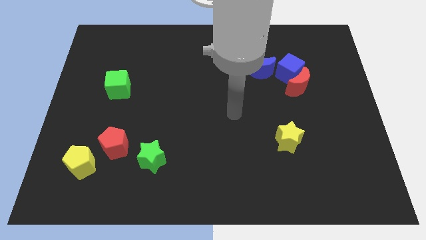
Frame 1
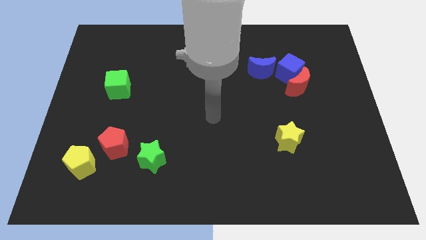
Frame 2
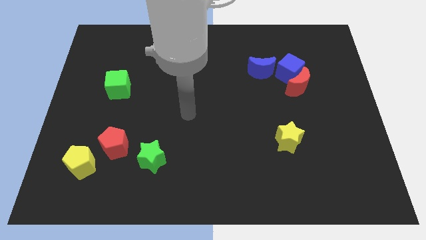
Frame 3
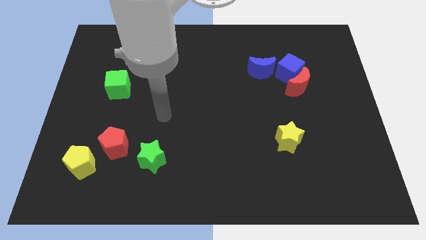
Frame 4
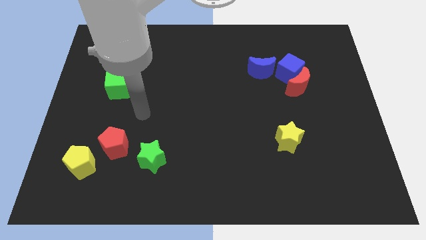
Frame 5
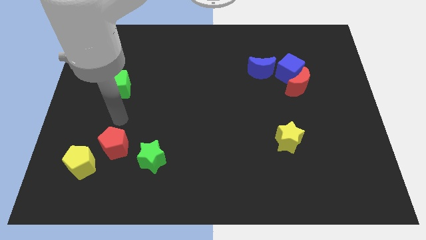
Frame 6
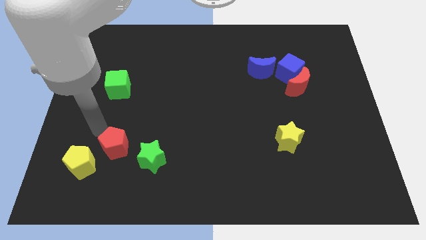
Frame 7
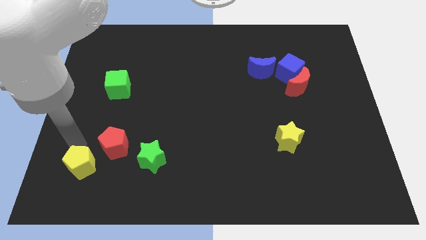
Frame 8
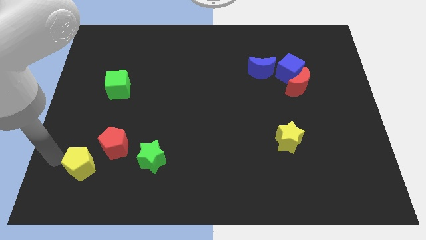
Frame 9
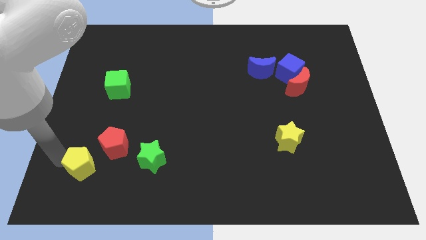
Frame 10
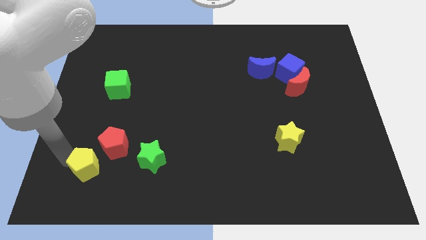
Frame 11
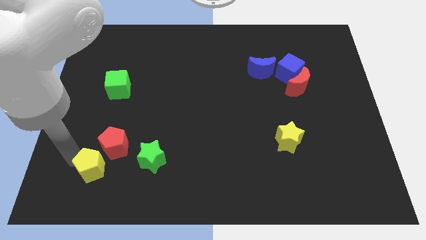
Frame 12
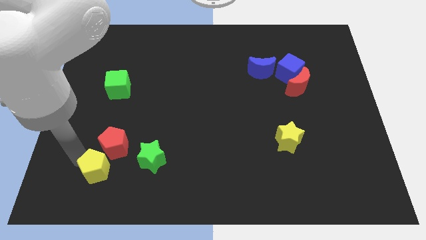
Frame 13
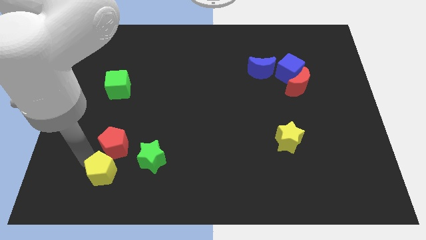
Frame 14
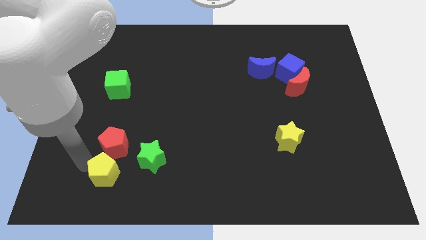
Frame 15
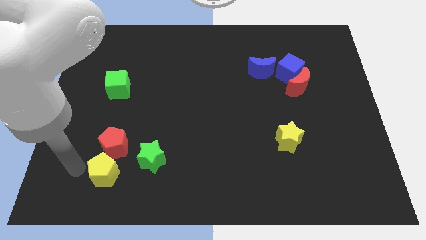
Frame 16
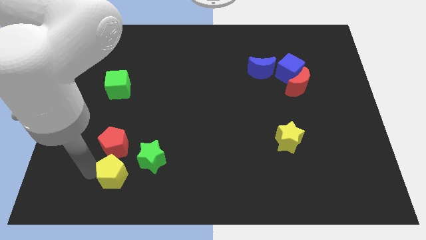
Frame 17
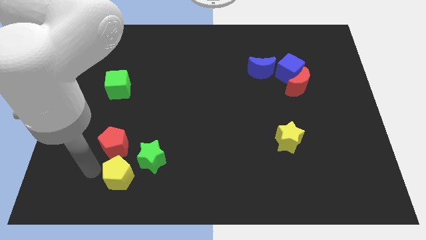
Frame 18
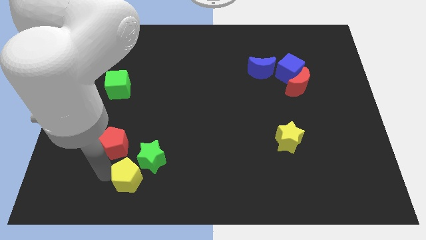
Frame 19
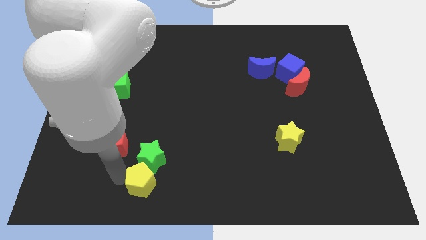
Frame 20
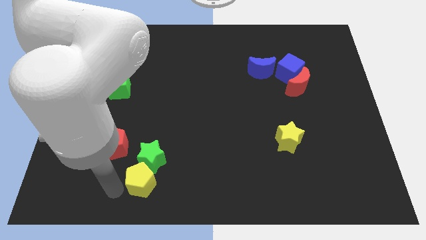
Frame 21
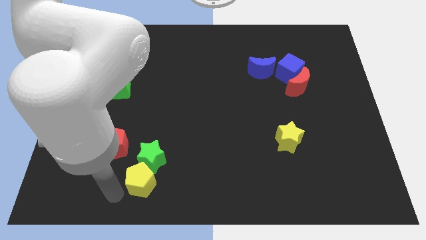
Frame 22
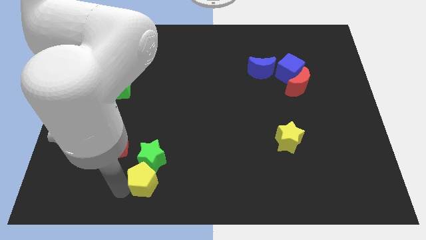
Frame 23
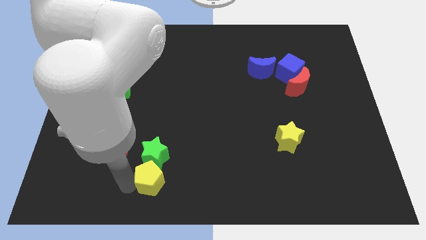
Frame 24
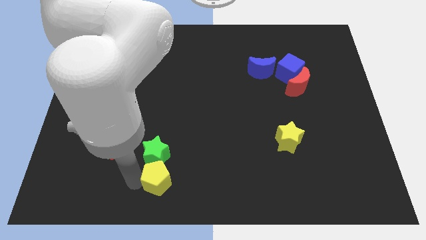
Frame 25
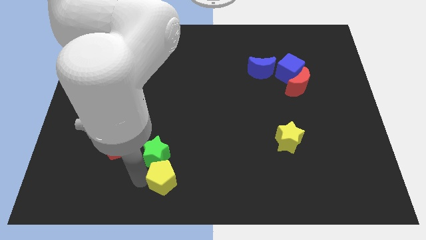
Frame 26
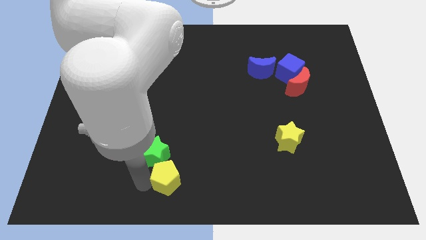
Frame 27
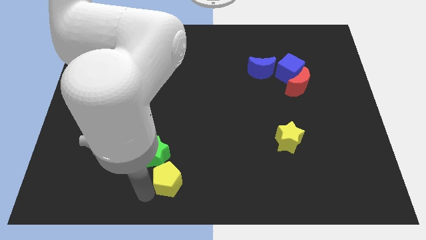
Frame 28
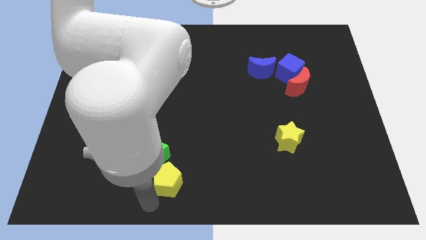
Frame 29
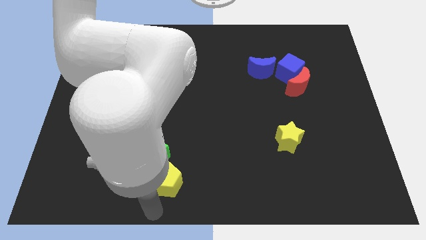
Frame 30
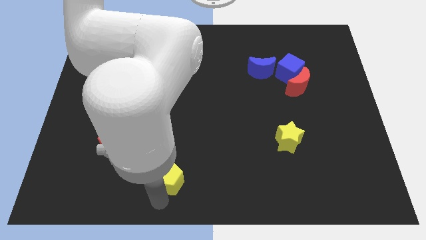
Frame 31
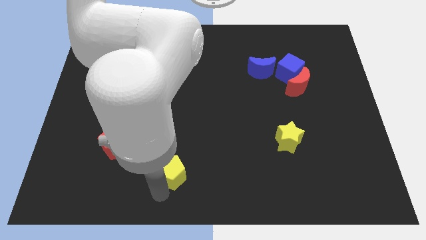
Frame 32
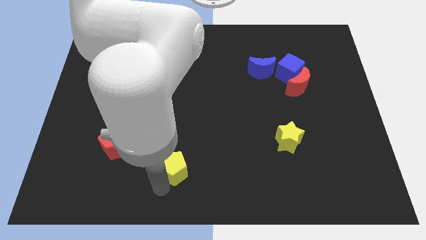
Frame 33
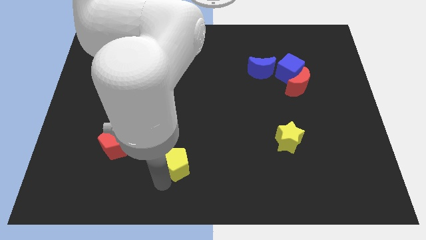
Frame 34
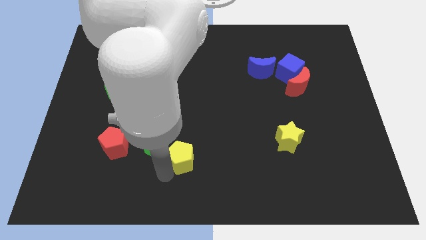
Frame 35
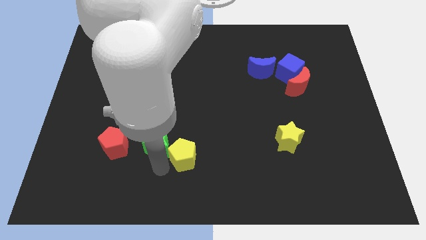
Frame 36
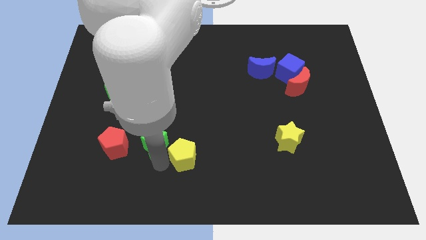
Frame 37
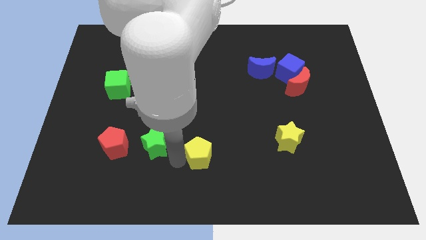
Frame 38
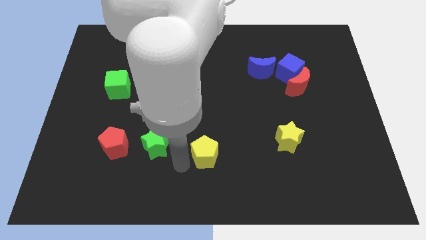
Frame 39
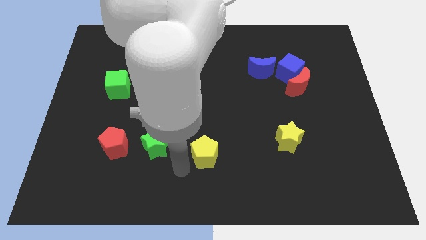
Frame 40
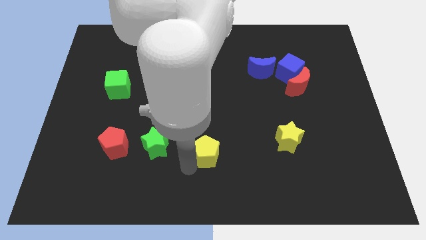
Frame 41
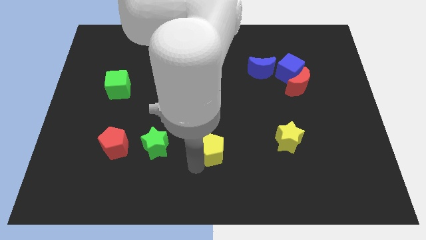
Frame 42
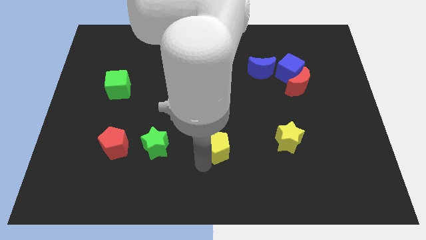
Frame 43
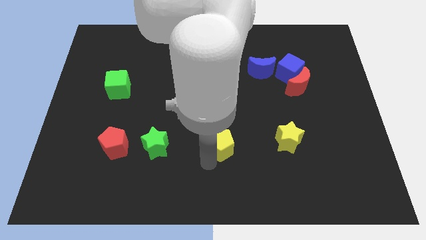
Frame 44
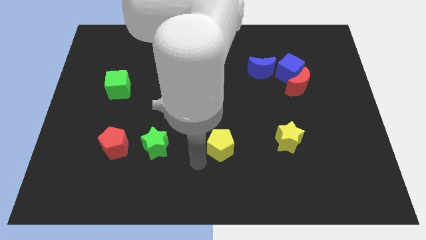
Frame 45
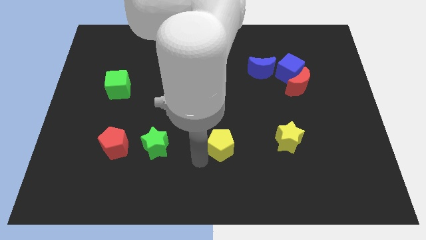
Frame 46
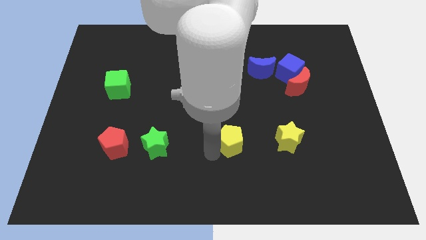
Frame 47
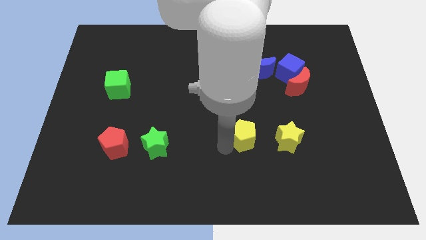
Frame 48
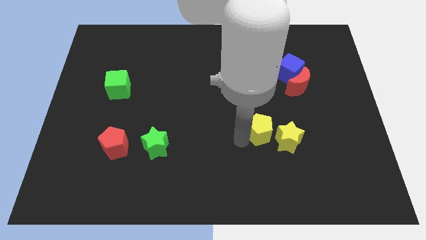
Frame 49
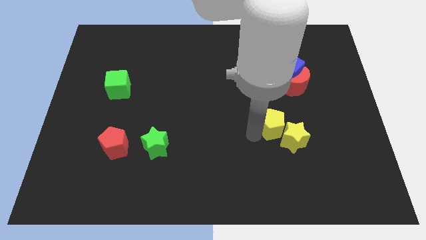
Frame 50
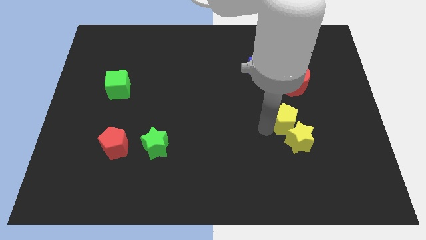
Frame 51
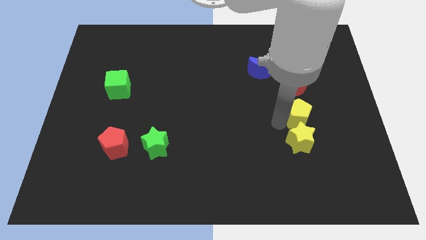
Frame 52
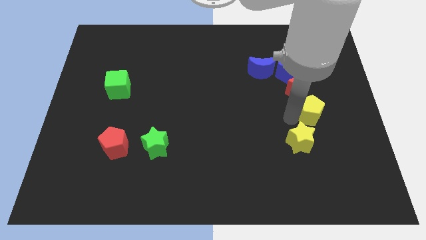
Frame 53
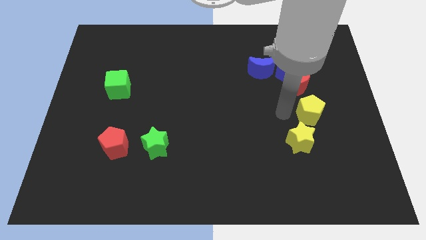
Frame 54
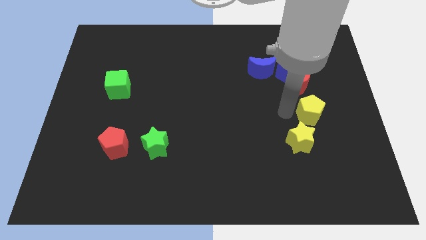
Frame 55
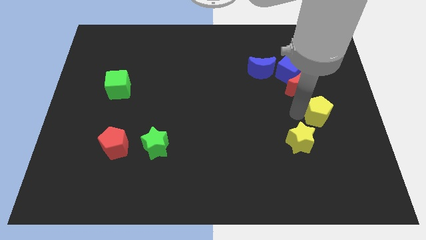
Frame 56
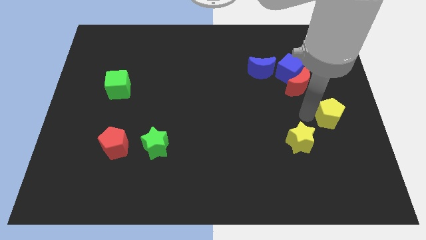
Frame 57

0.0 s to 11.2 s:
move the yellow pentagon to the right side of the board

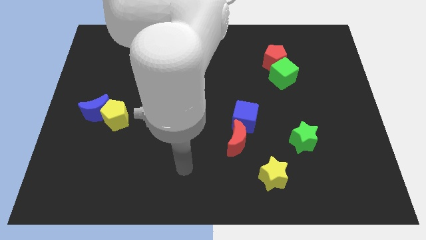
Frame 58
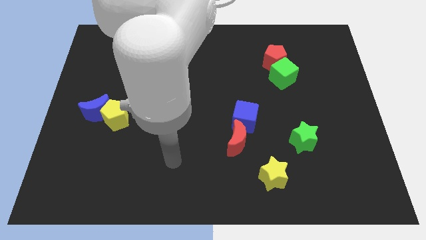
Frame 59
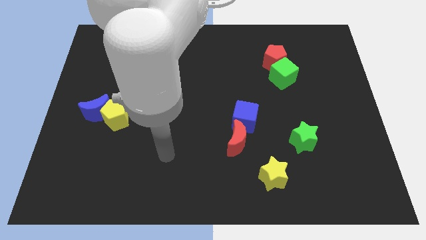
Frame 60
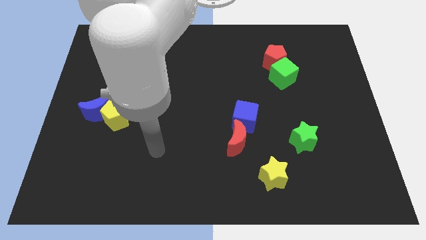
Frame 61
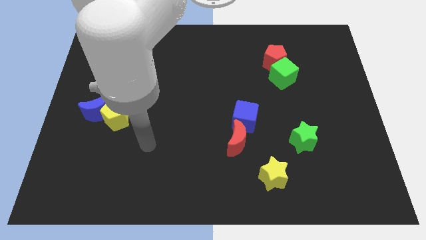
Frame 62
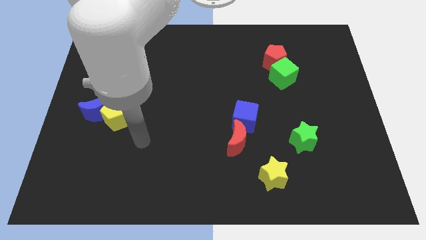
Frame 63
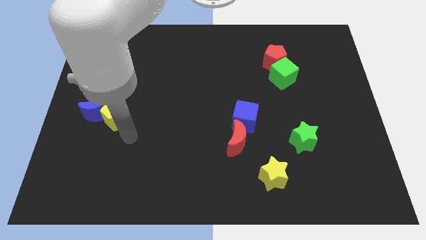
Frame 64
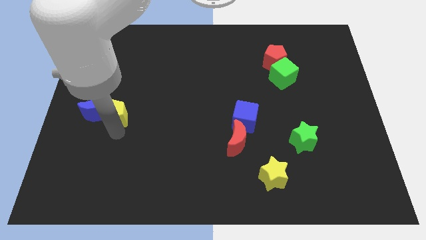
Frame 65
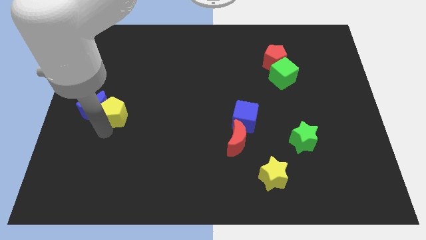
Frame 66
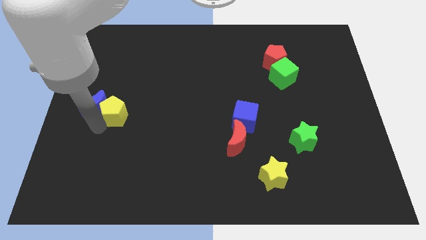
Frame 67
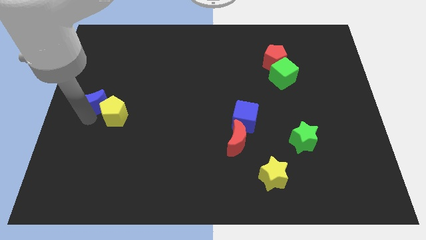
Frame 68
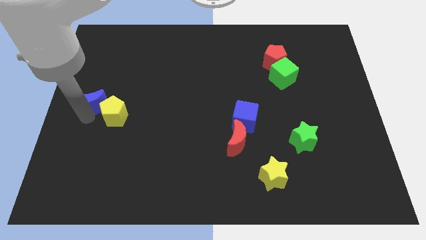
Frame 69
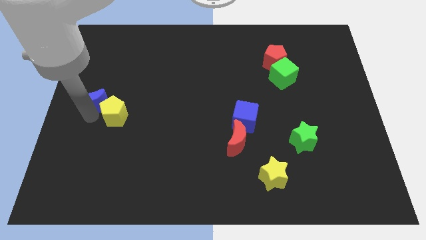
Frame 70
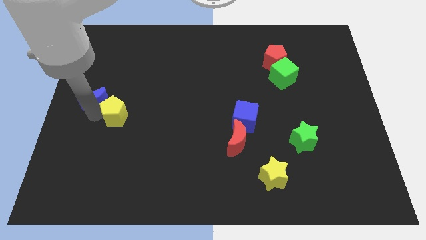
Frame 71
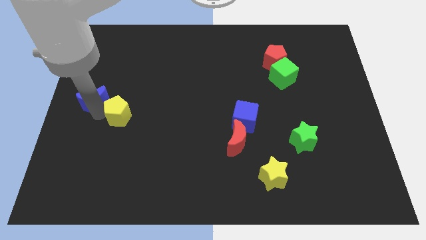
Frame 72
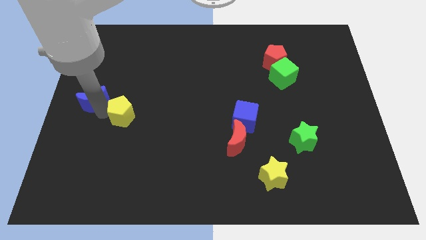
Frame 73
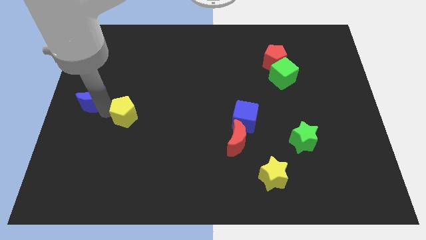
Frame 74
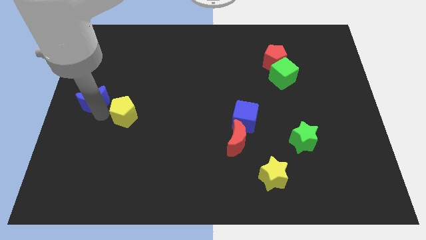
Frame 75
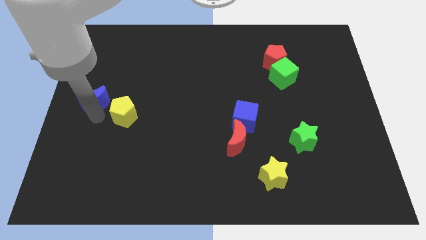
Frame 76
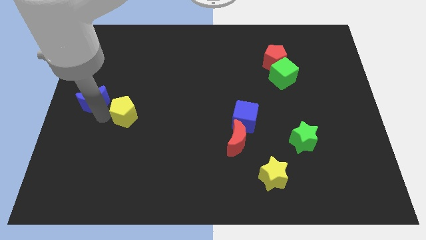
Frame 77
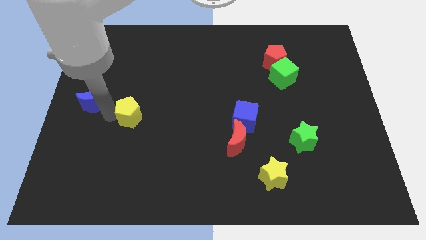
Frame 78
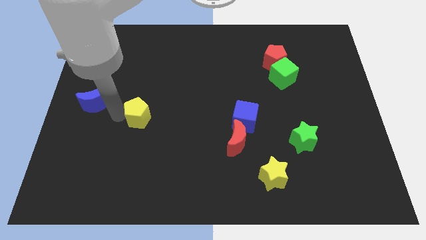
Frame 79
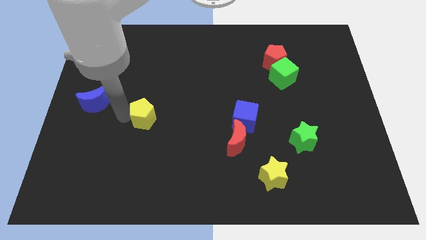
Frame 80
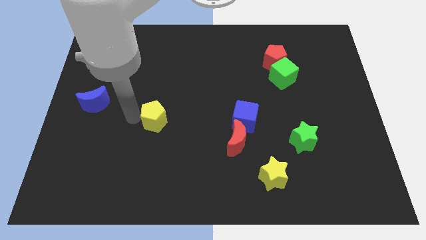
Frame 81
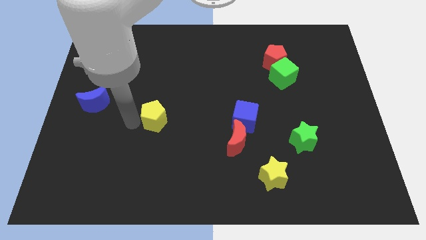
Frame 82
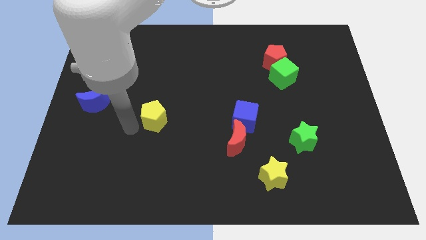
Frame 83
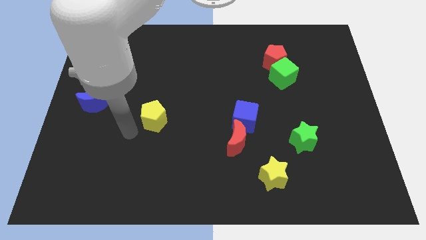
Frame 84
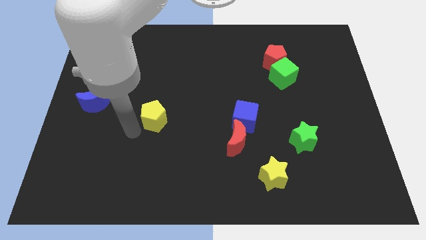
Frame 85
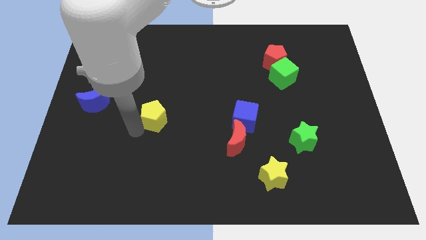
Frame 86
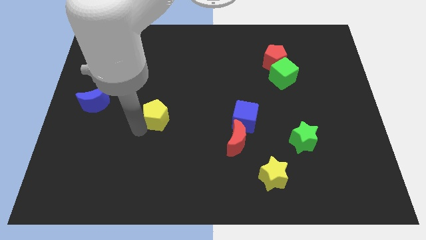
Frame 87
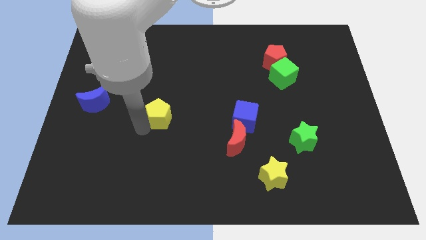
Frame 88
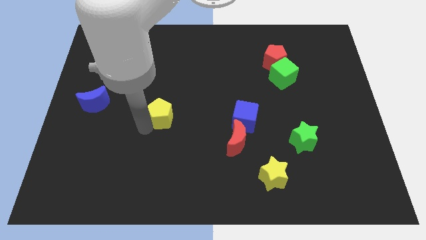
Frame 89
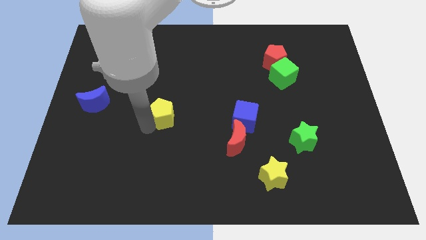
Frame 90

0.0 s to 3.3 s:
push the yellow pentagon to the middle
